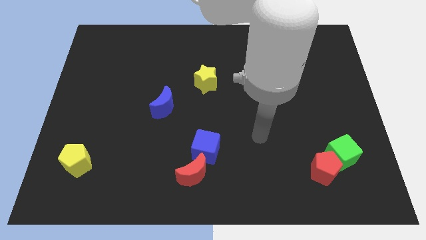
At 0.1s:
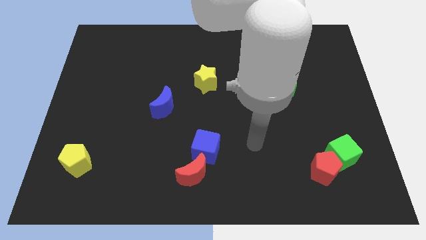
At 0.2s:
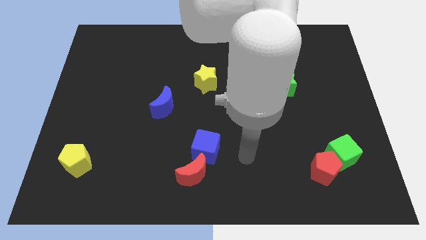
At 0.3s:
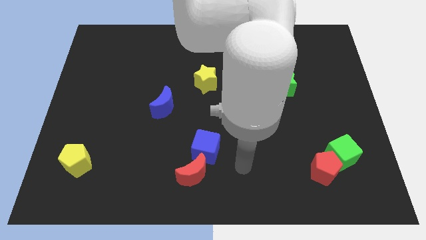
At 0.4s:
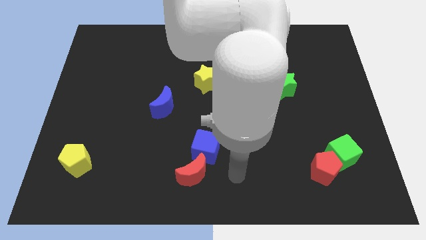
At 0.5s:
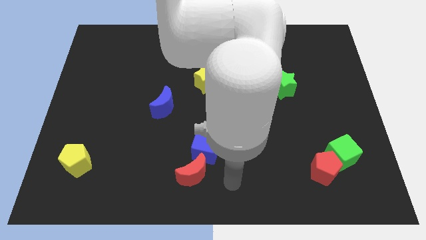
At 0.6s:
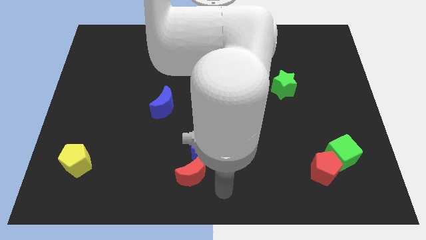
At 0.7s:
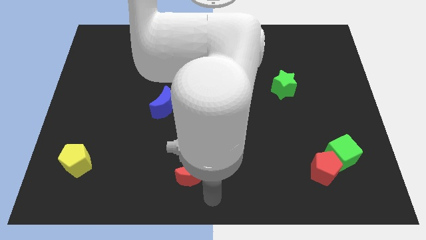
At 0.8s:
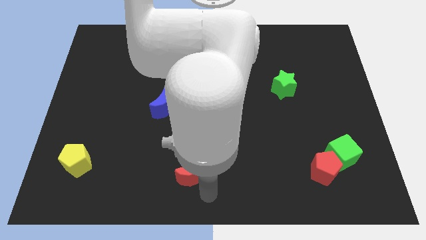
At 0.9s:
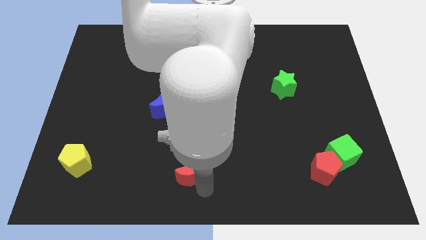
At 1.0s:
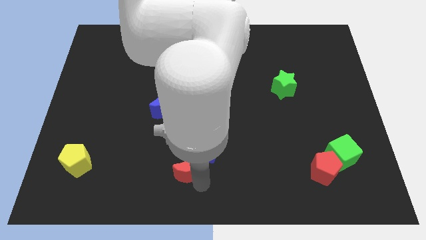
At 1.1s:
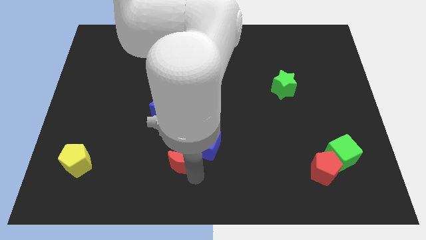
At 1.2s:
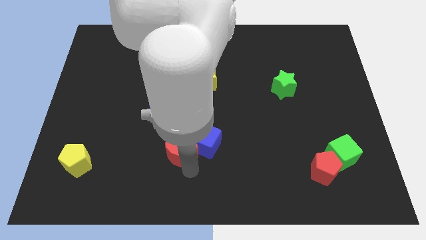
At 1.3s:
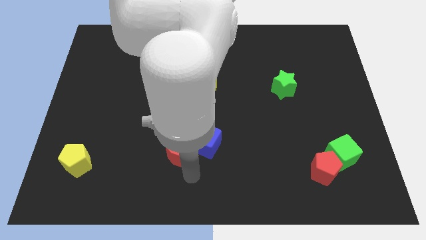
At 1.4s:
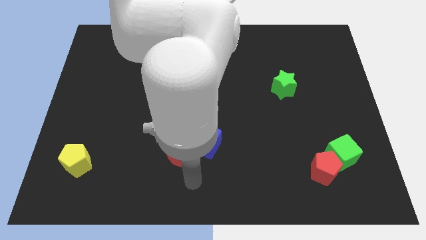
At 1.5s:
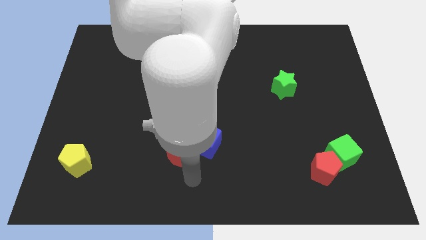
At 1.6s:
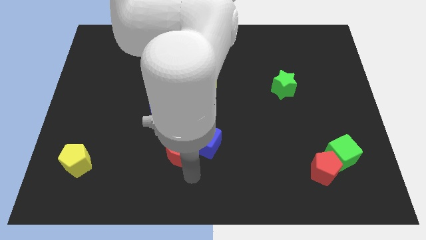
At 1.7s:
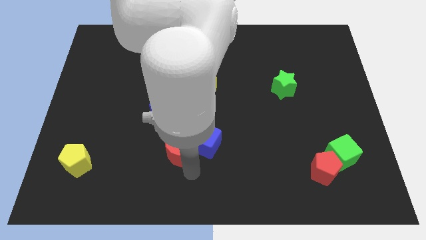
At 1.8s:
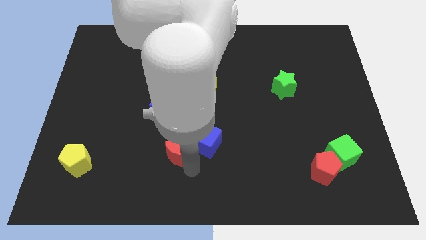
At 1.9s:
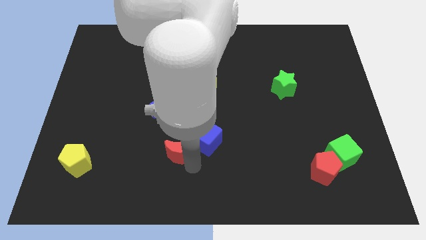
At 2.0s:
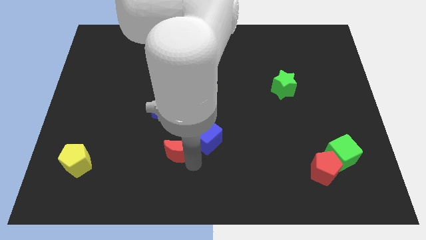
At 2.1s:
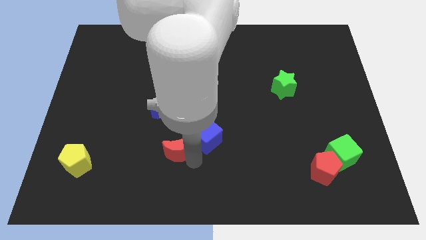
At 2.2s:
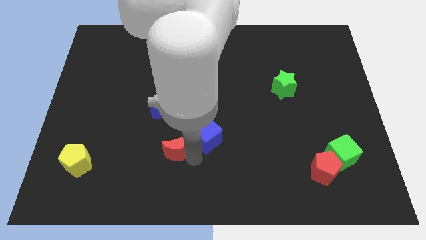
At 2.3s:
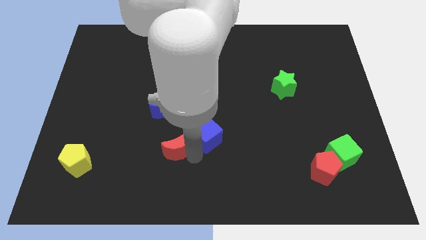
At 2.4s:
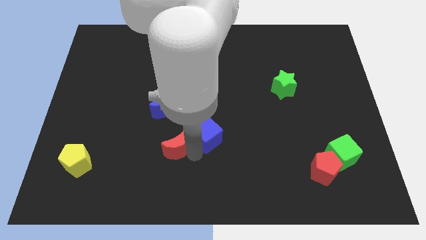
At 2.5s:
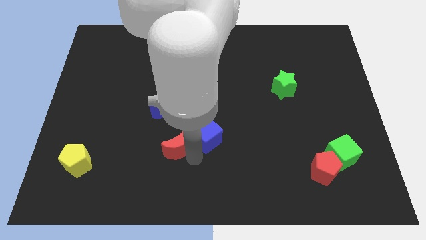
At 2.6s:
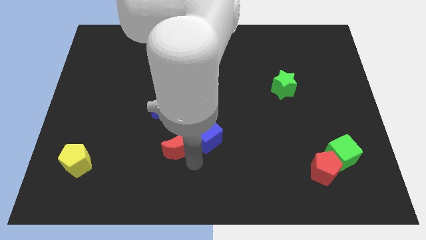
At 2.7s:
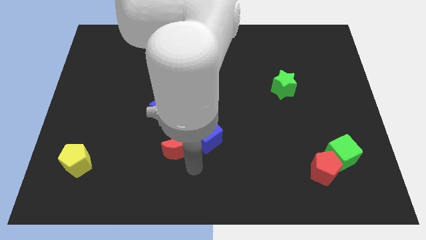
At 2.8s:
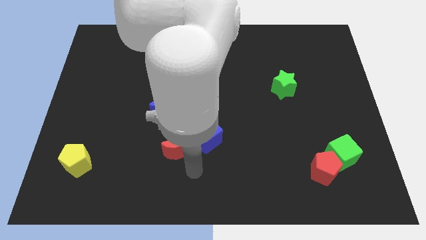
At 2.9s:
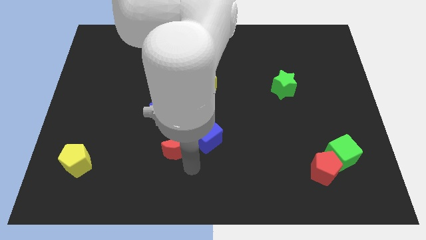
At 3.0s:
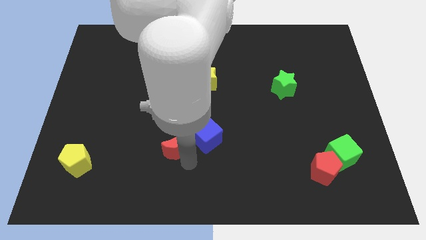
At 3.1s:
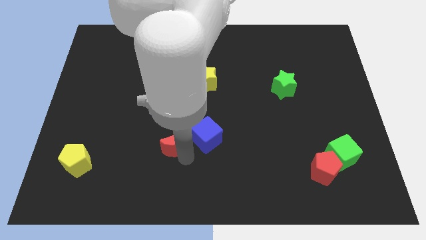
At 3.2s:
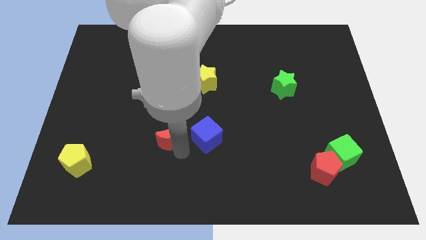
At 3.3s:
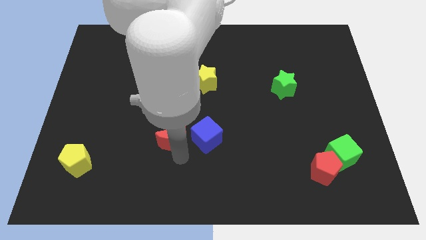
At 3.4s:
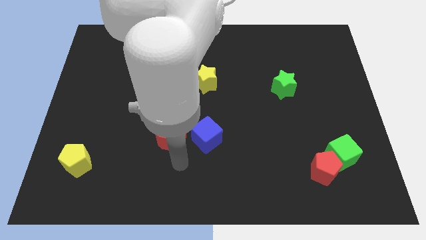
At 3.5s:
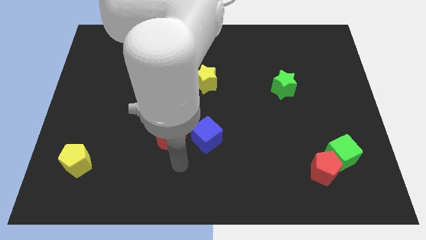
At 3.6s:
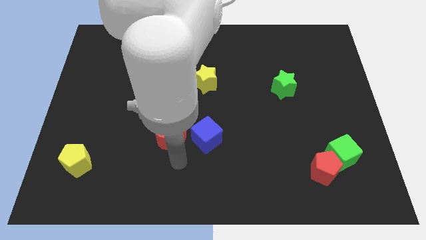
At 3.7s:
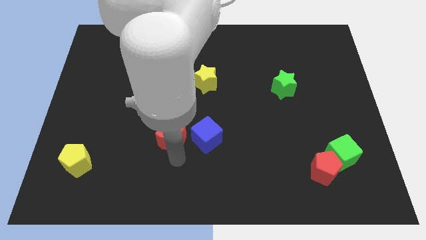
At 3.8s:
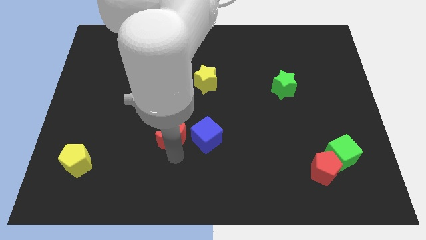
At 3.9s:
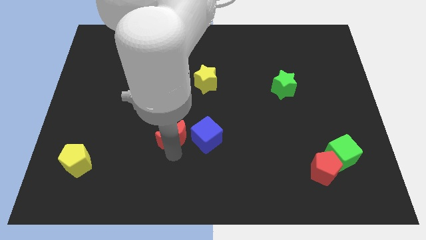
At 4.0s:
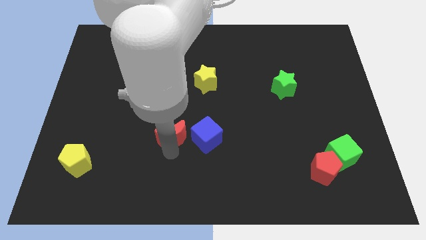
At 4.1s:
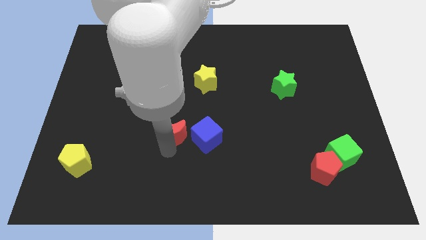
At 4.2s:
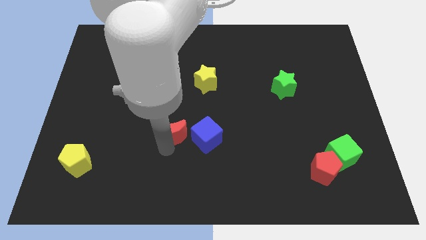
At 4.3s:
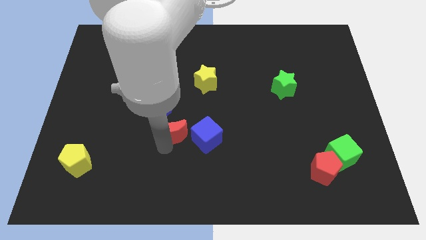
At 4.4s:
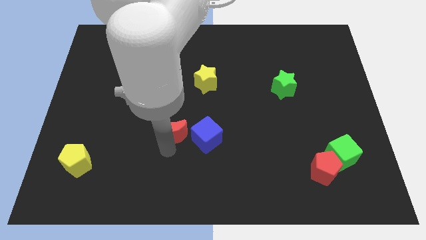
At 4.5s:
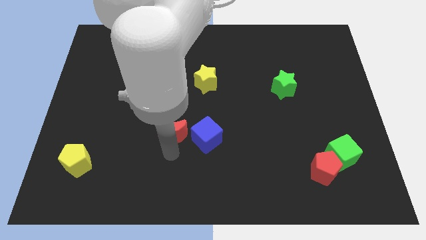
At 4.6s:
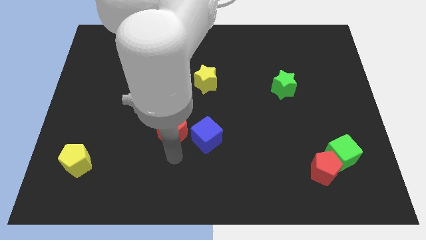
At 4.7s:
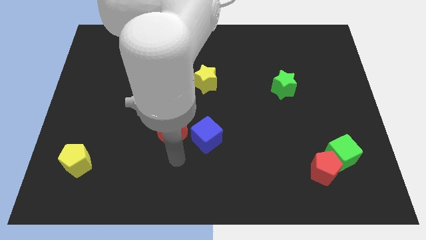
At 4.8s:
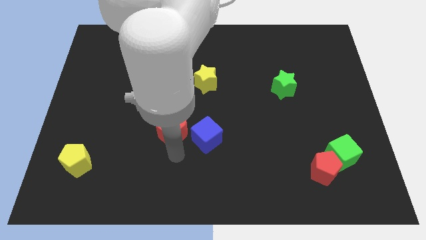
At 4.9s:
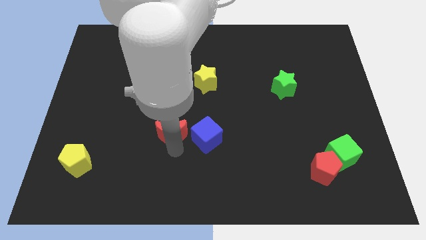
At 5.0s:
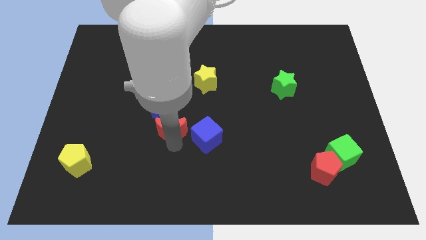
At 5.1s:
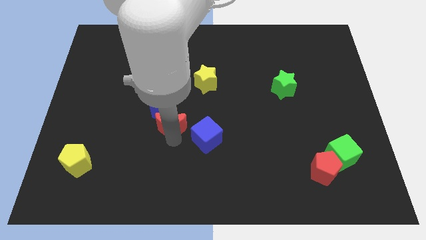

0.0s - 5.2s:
put the red moon close to the blue moon

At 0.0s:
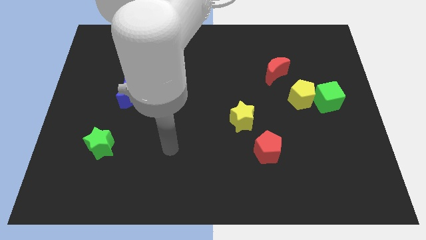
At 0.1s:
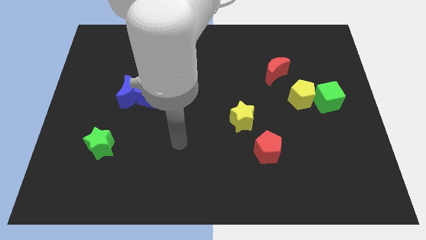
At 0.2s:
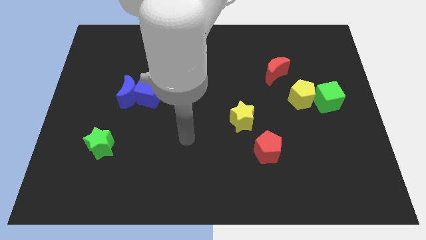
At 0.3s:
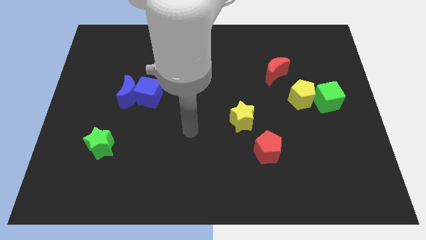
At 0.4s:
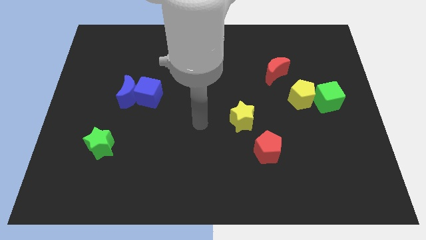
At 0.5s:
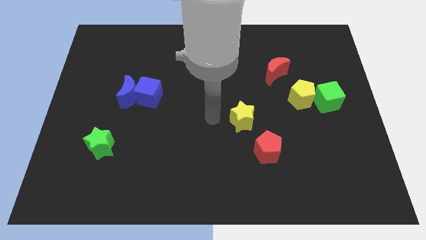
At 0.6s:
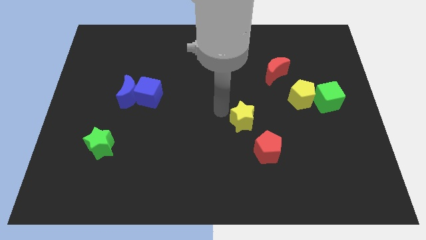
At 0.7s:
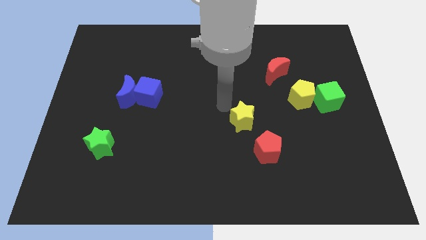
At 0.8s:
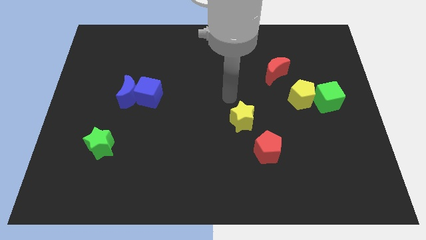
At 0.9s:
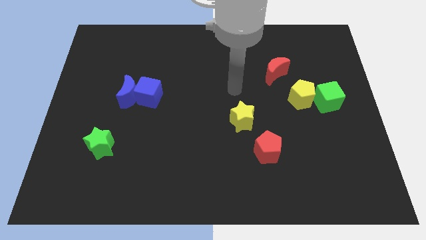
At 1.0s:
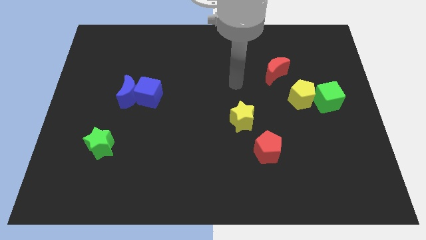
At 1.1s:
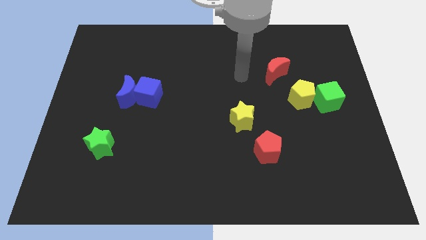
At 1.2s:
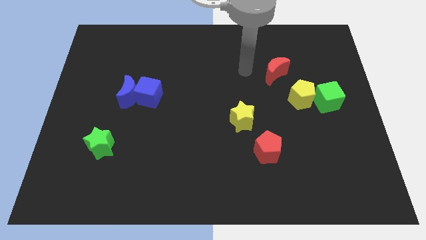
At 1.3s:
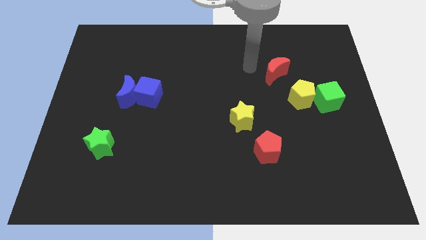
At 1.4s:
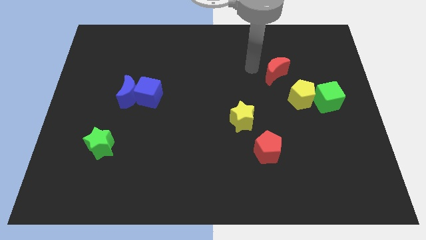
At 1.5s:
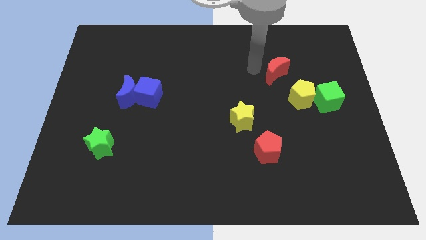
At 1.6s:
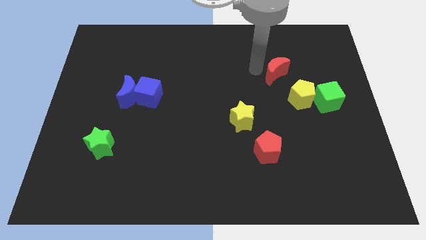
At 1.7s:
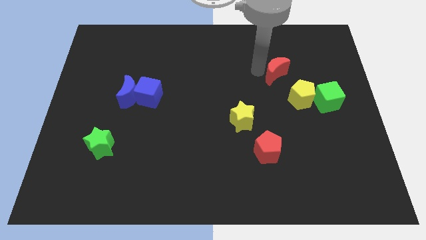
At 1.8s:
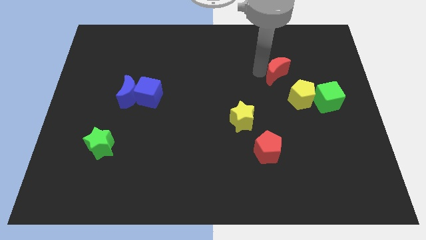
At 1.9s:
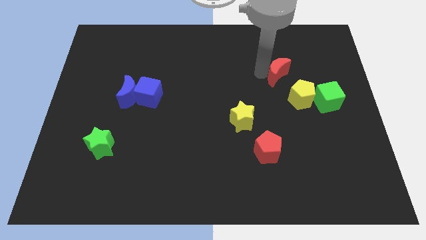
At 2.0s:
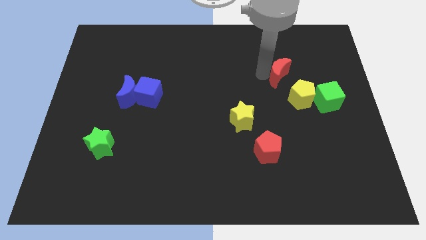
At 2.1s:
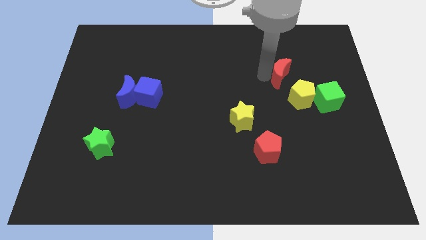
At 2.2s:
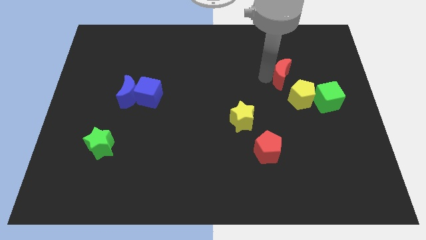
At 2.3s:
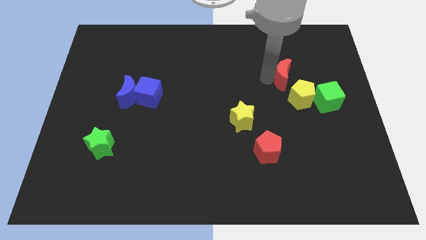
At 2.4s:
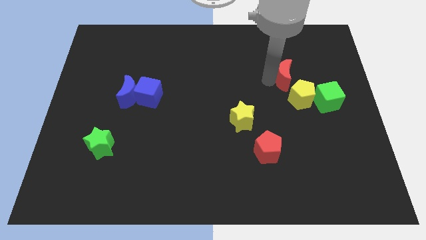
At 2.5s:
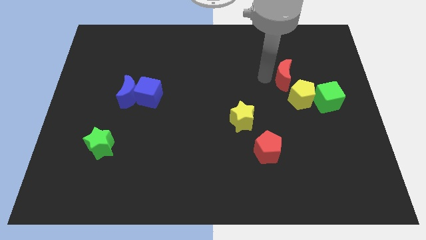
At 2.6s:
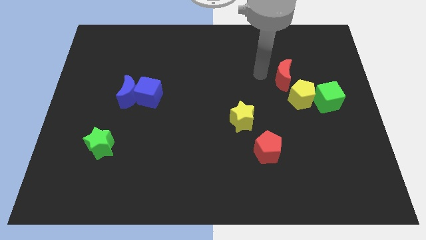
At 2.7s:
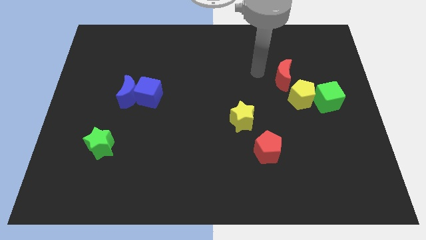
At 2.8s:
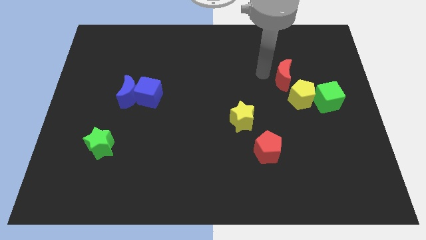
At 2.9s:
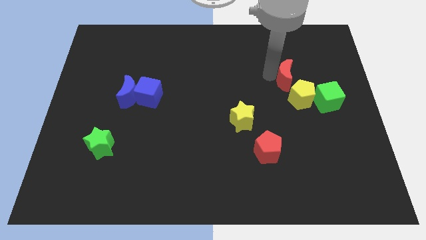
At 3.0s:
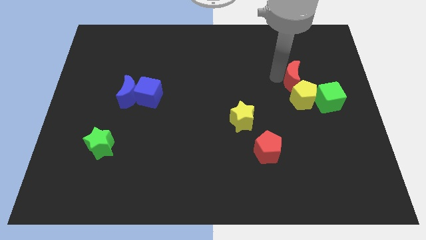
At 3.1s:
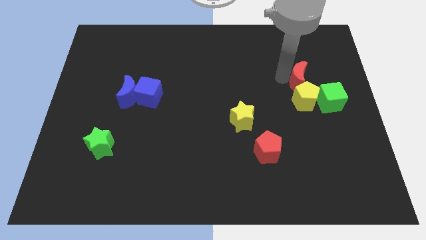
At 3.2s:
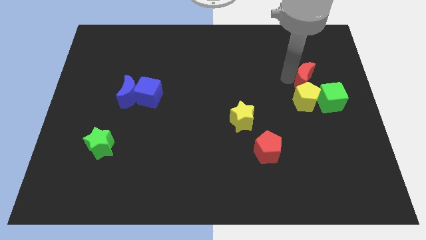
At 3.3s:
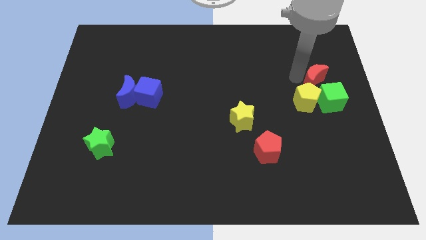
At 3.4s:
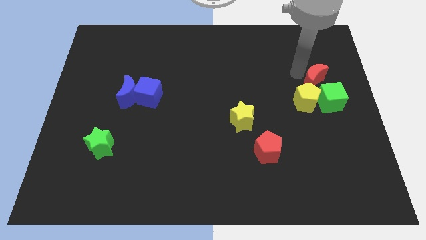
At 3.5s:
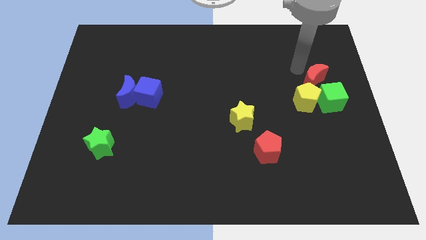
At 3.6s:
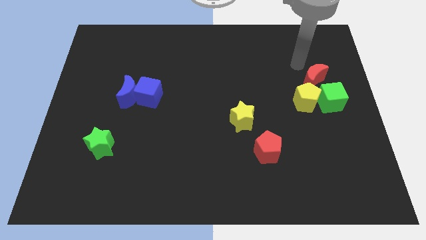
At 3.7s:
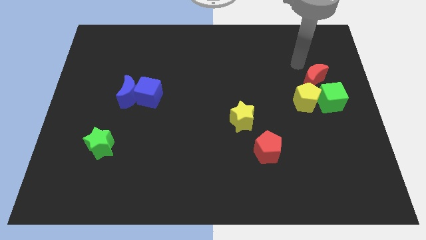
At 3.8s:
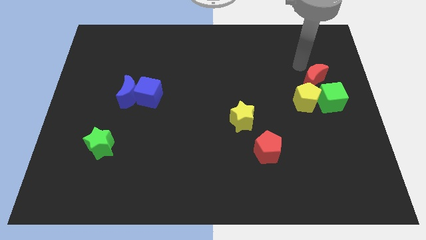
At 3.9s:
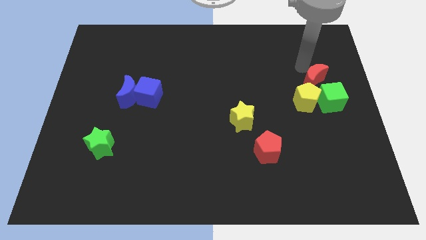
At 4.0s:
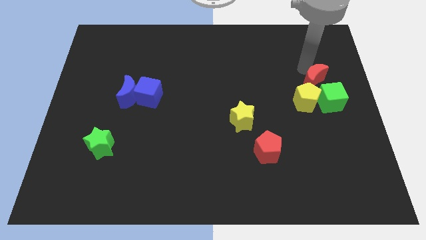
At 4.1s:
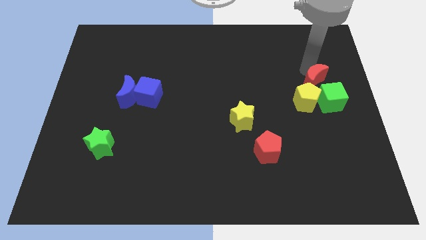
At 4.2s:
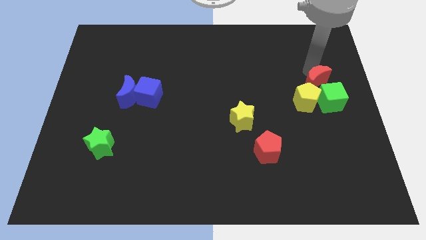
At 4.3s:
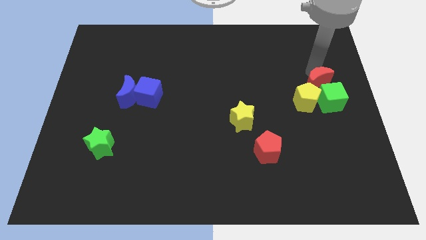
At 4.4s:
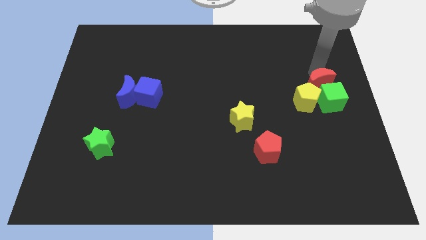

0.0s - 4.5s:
move the red moon close to the green cube
